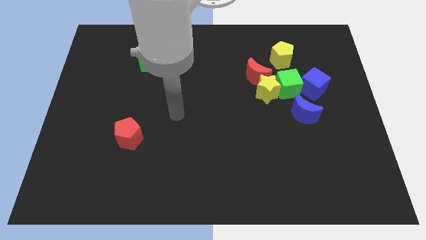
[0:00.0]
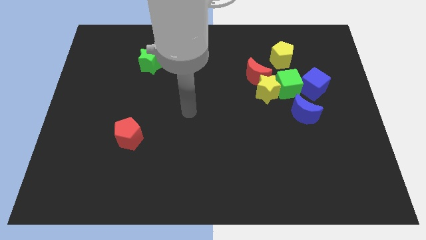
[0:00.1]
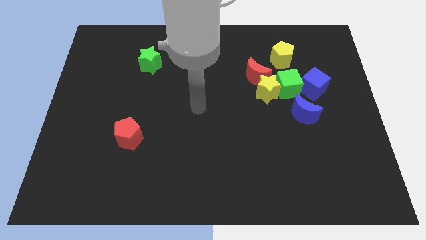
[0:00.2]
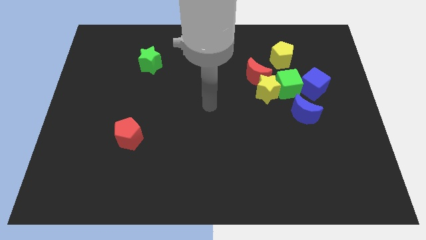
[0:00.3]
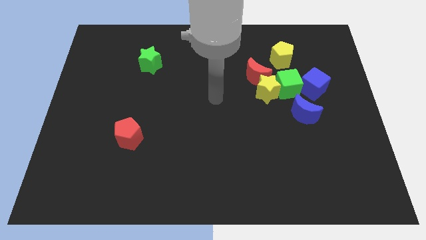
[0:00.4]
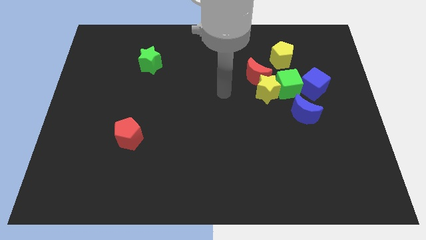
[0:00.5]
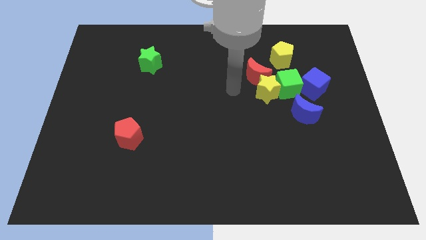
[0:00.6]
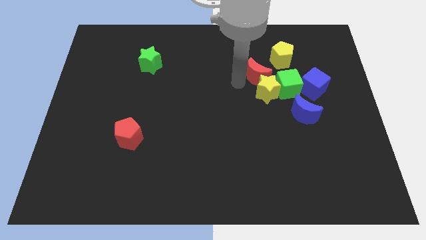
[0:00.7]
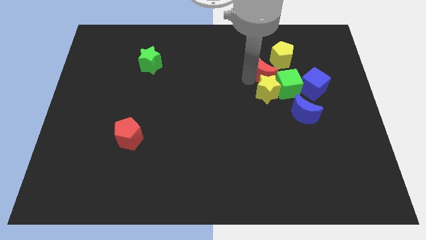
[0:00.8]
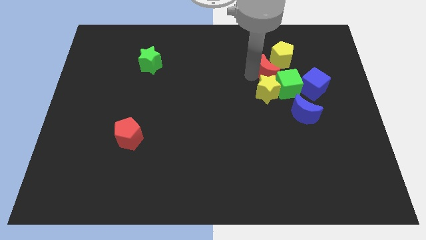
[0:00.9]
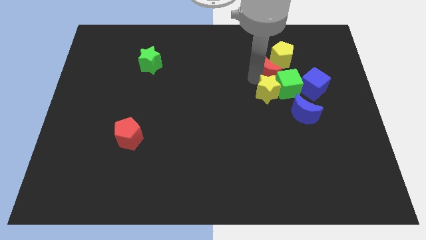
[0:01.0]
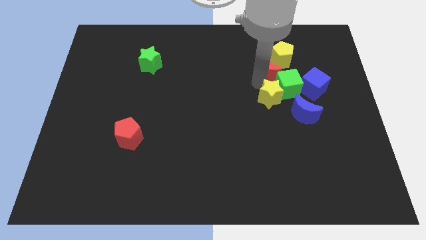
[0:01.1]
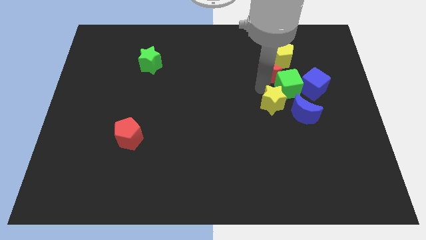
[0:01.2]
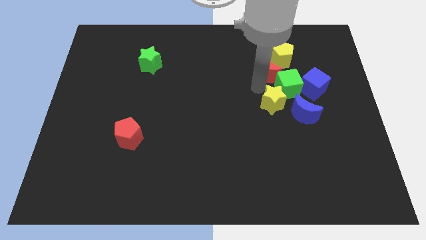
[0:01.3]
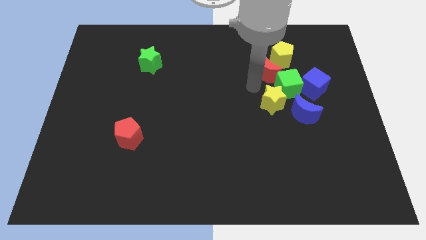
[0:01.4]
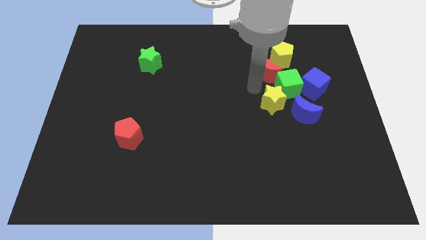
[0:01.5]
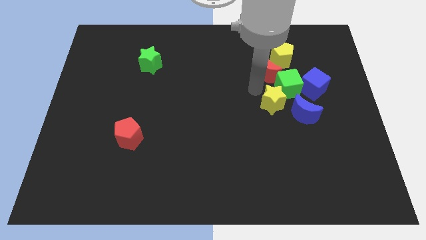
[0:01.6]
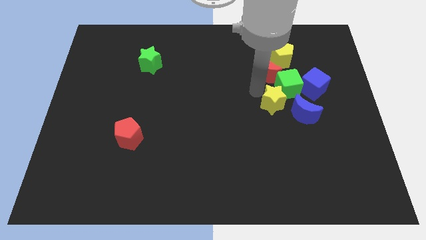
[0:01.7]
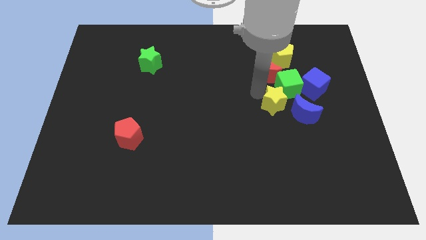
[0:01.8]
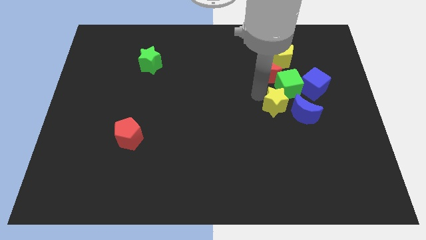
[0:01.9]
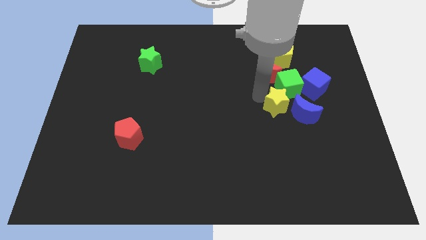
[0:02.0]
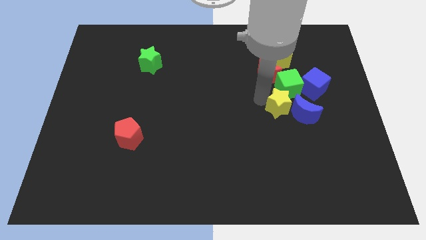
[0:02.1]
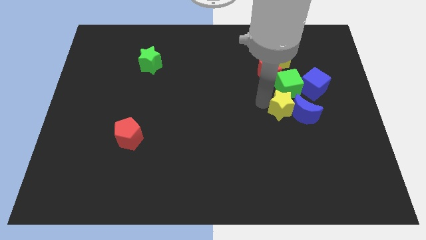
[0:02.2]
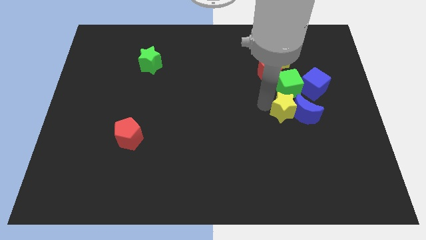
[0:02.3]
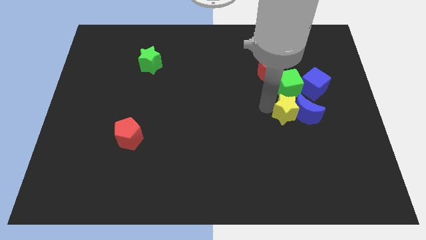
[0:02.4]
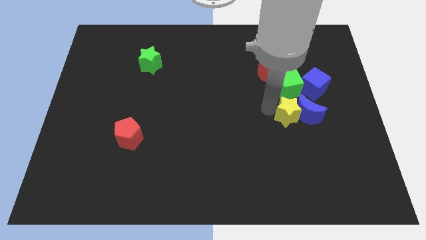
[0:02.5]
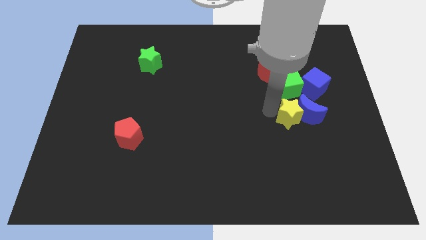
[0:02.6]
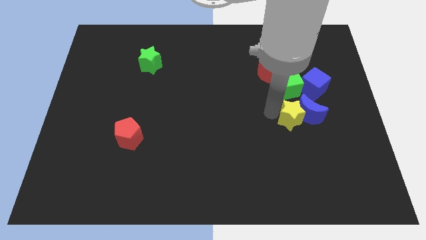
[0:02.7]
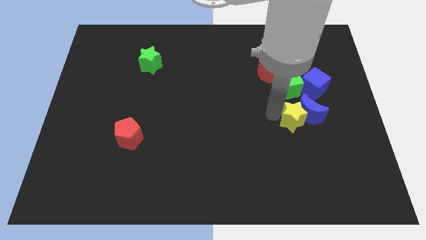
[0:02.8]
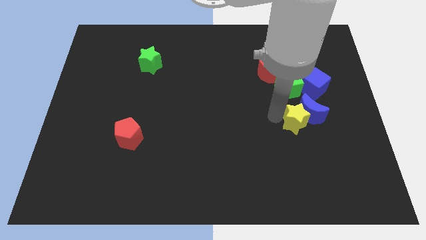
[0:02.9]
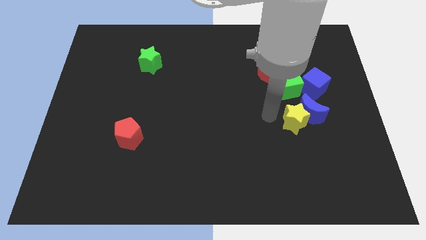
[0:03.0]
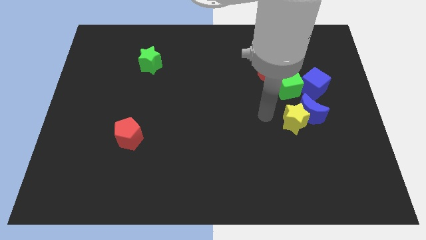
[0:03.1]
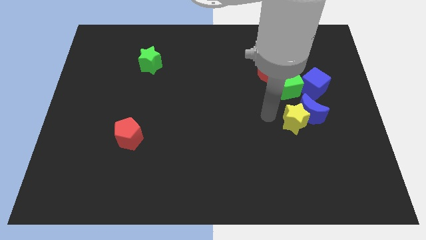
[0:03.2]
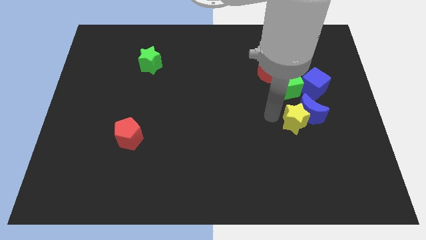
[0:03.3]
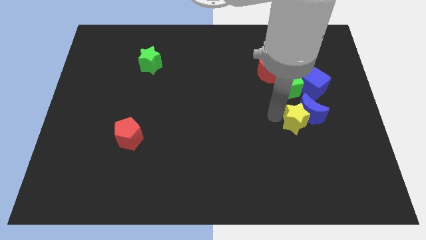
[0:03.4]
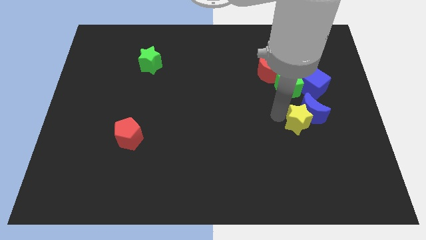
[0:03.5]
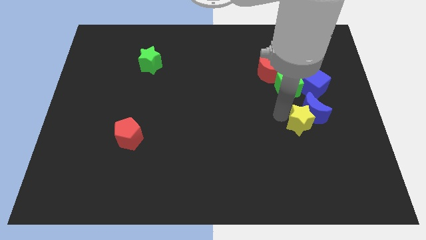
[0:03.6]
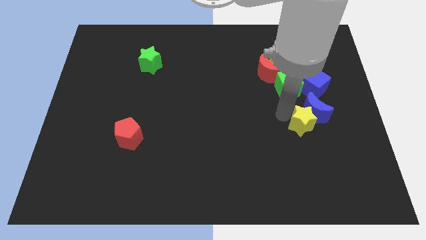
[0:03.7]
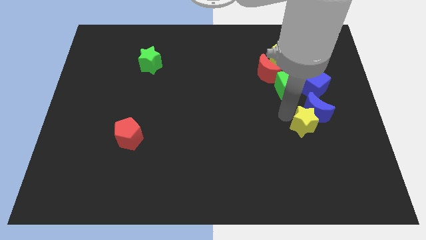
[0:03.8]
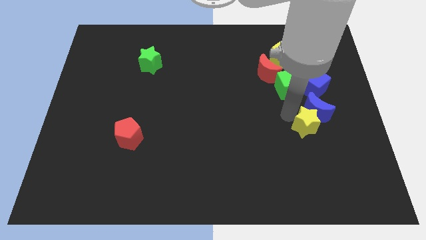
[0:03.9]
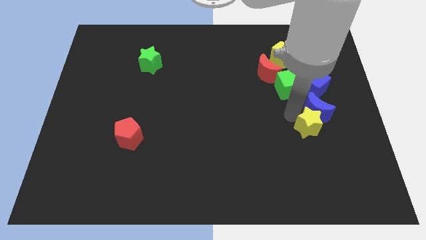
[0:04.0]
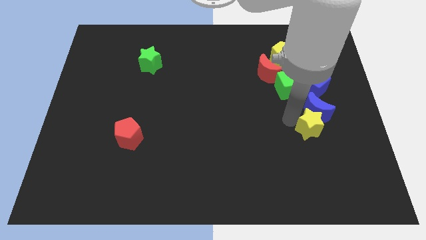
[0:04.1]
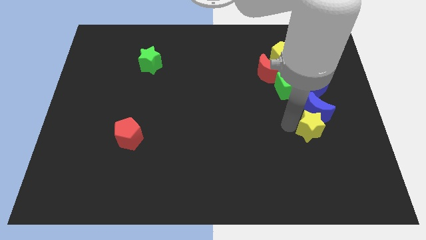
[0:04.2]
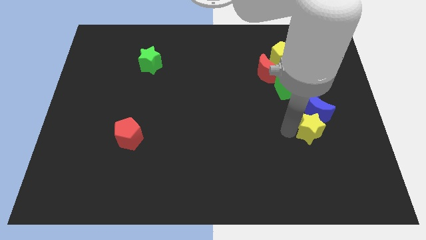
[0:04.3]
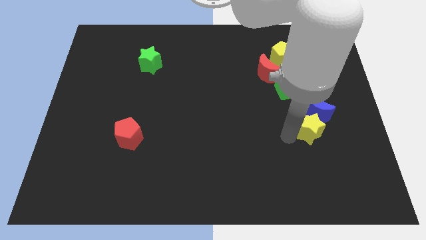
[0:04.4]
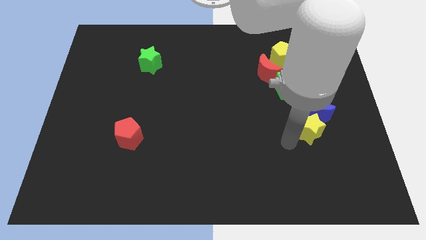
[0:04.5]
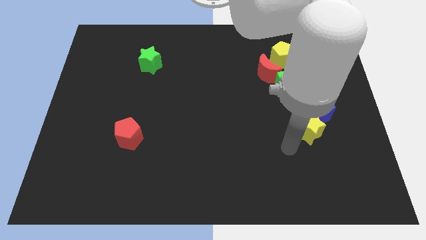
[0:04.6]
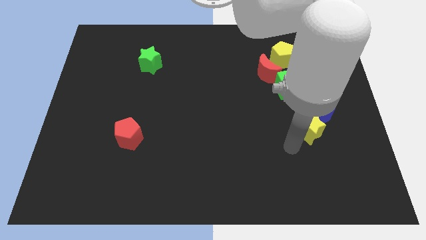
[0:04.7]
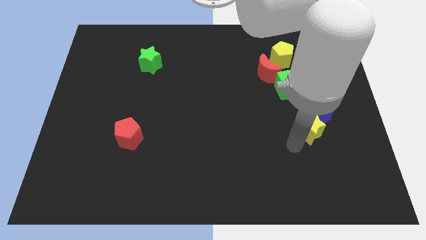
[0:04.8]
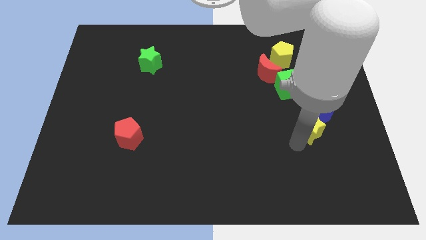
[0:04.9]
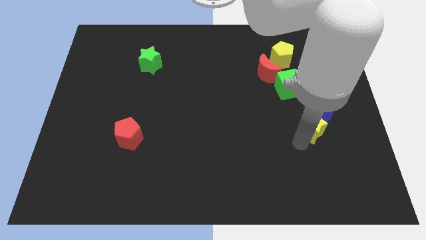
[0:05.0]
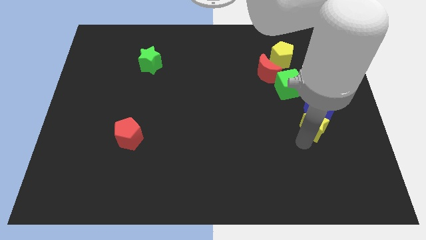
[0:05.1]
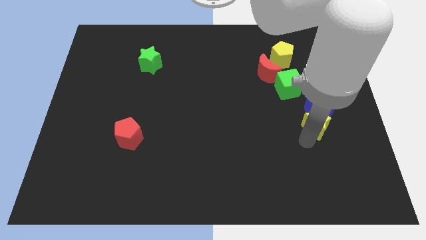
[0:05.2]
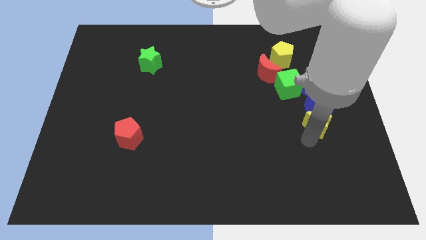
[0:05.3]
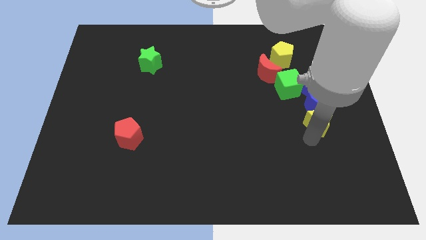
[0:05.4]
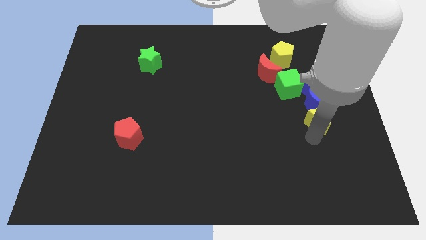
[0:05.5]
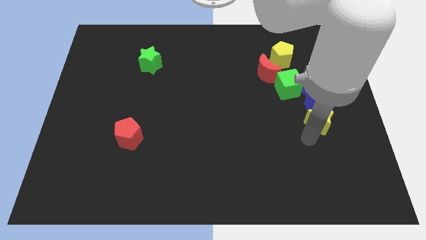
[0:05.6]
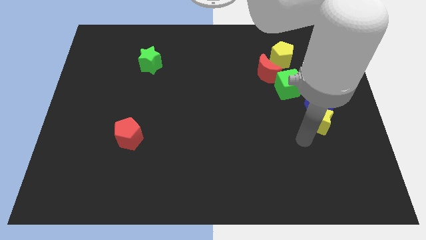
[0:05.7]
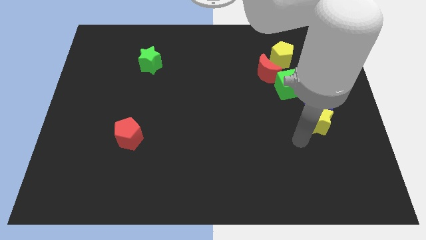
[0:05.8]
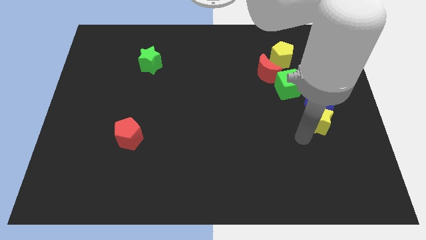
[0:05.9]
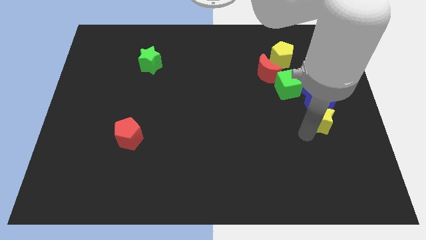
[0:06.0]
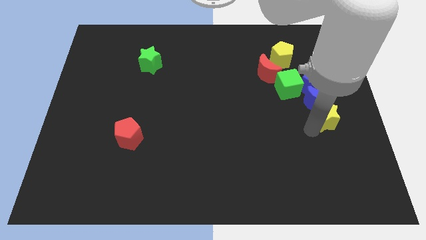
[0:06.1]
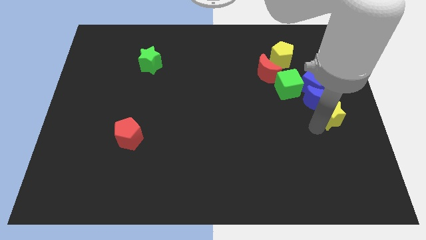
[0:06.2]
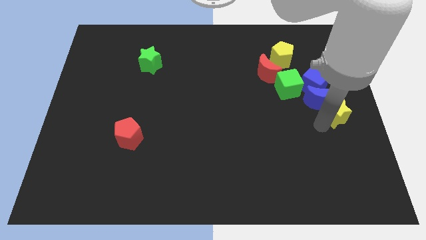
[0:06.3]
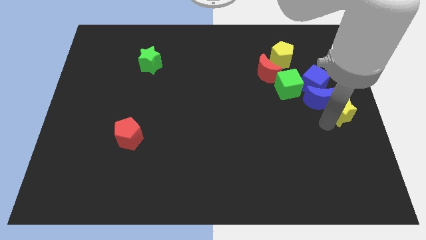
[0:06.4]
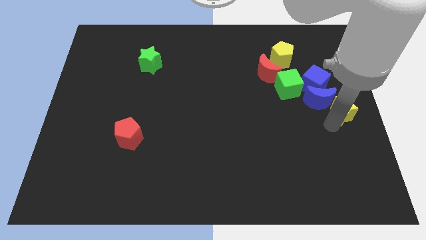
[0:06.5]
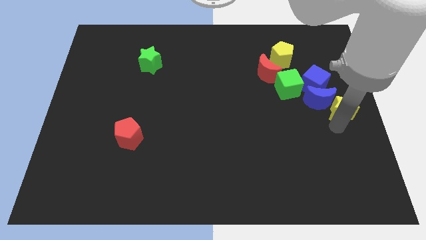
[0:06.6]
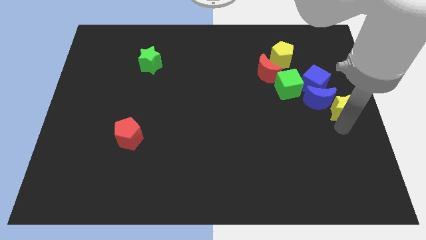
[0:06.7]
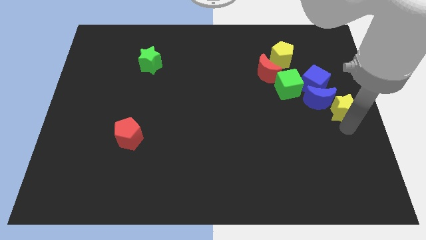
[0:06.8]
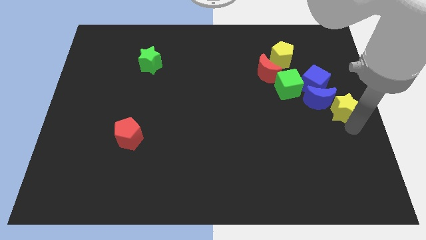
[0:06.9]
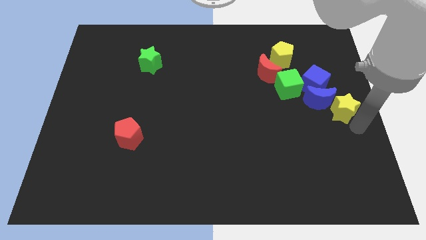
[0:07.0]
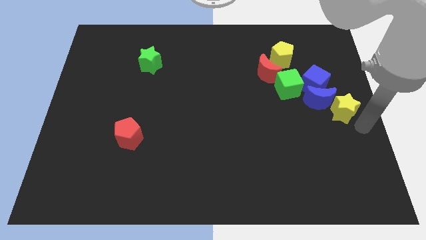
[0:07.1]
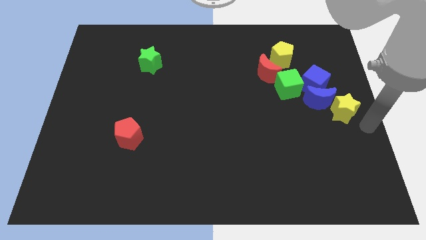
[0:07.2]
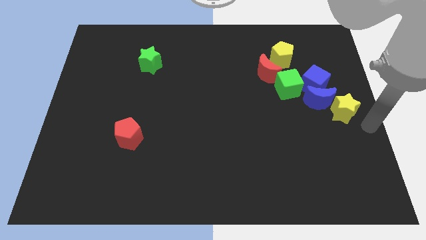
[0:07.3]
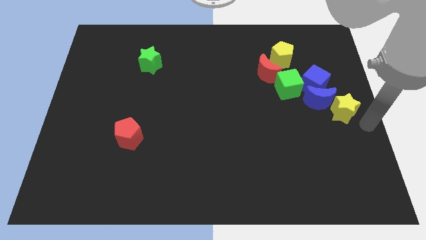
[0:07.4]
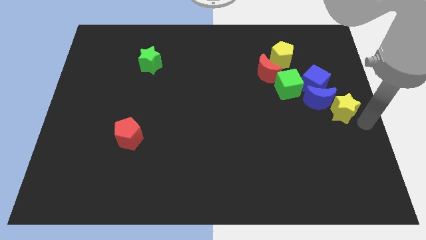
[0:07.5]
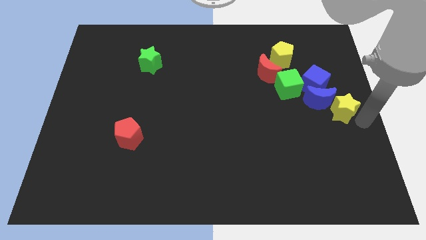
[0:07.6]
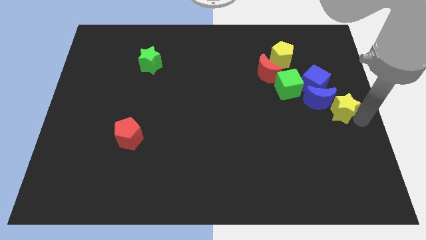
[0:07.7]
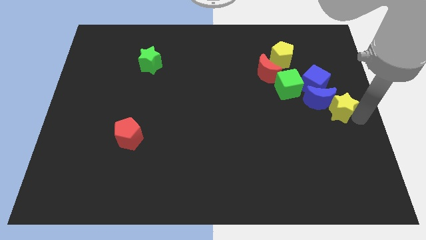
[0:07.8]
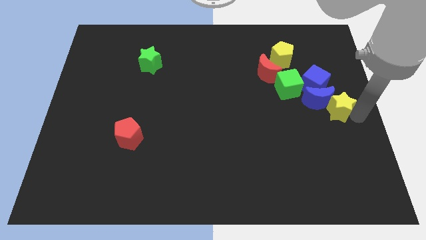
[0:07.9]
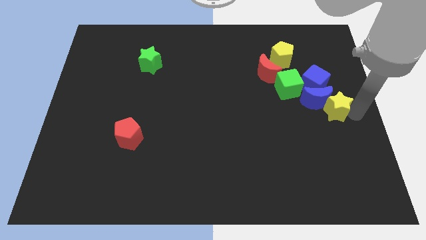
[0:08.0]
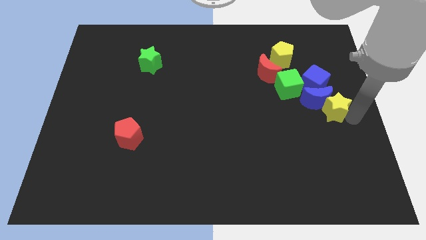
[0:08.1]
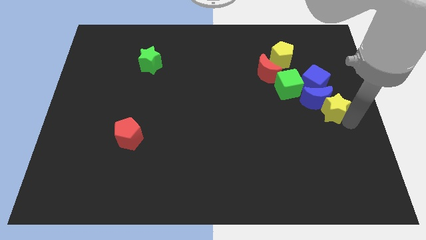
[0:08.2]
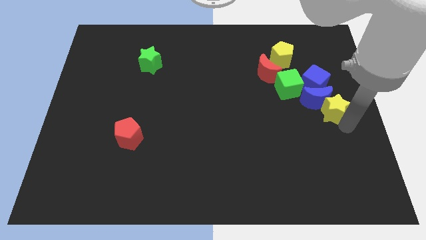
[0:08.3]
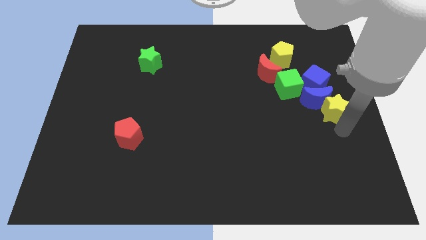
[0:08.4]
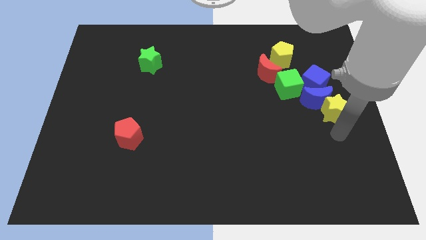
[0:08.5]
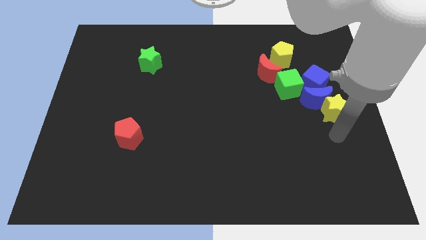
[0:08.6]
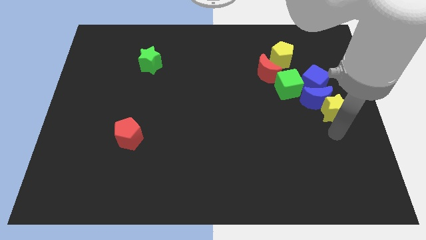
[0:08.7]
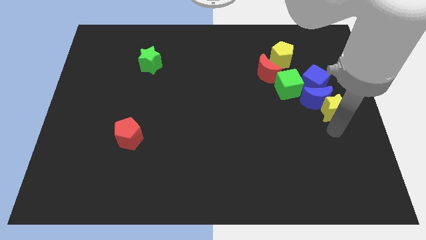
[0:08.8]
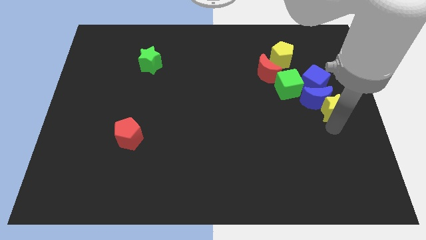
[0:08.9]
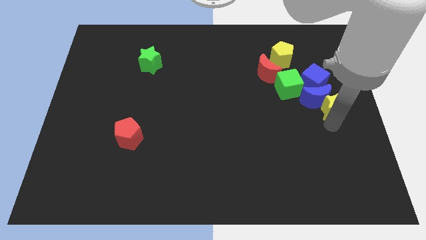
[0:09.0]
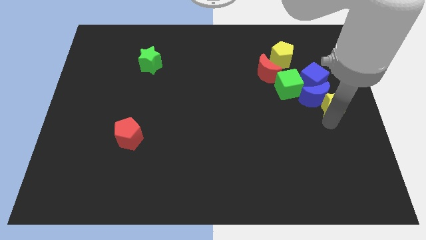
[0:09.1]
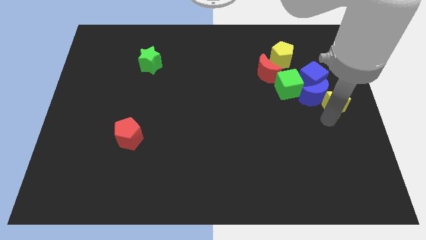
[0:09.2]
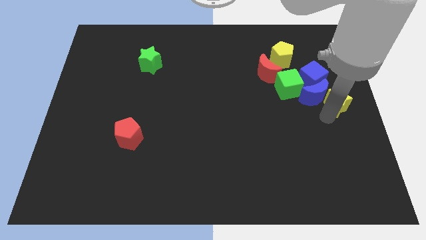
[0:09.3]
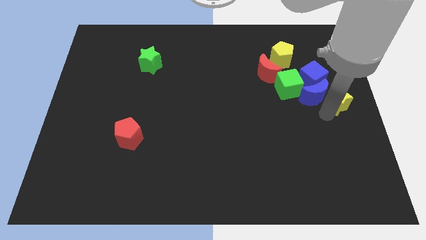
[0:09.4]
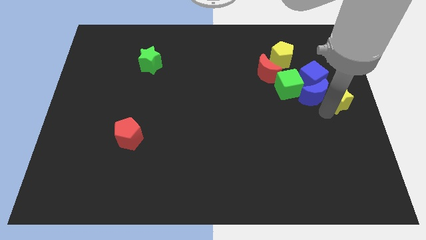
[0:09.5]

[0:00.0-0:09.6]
slide the yellow star diagonally up and to the right of the blue moon
